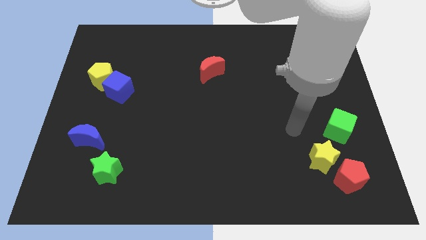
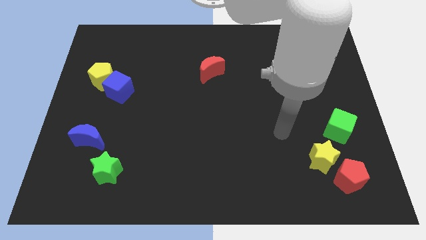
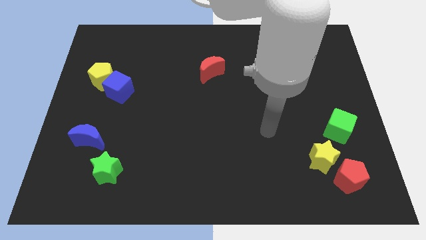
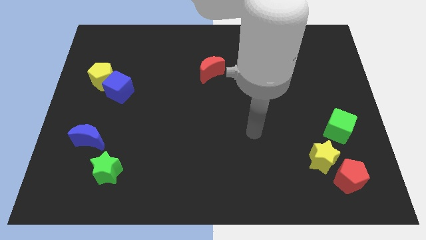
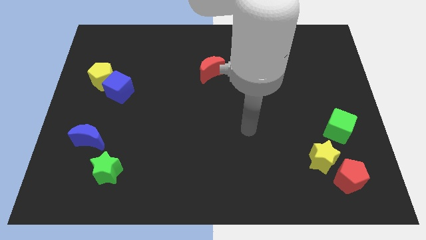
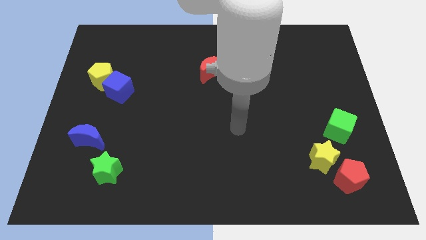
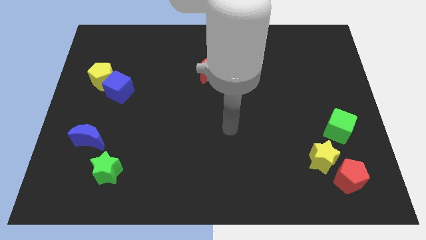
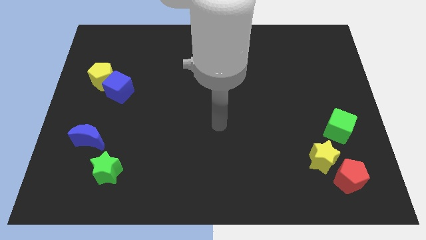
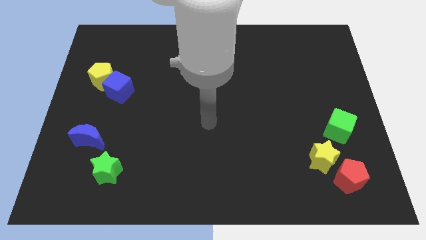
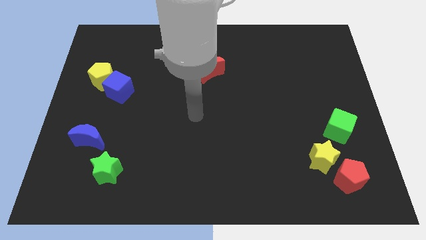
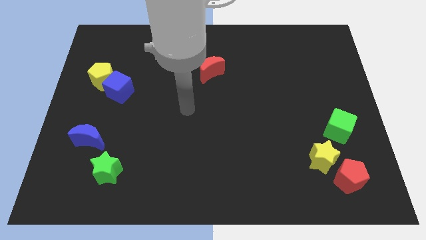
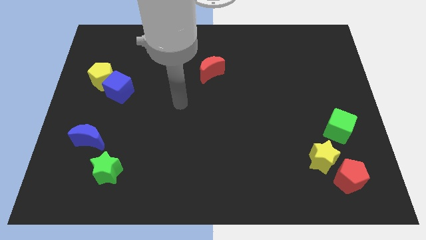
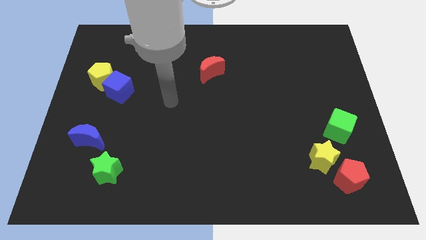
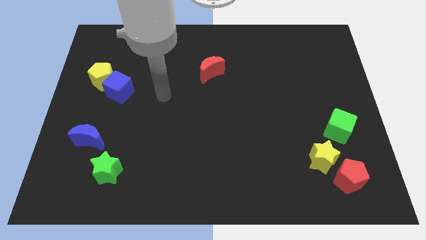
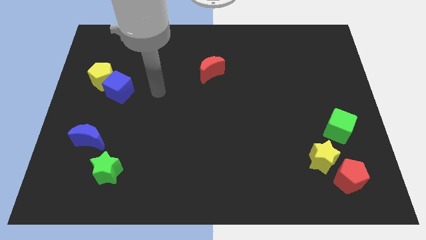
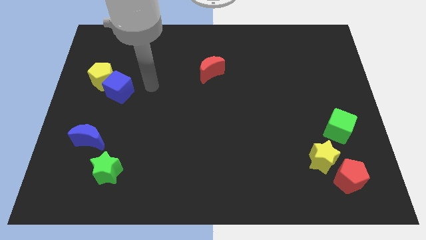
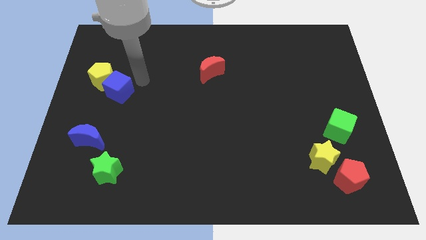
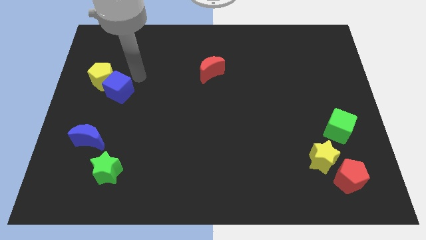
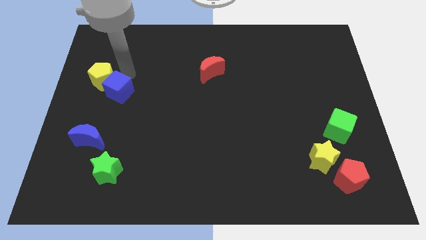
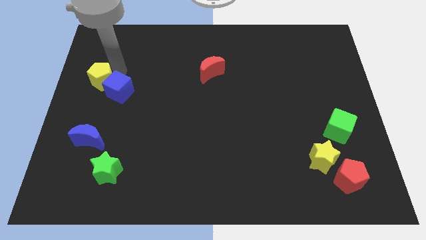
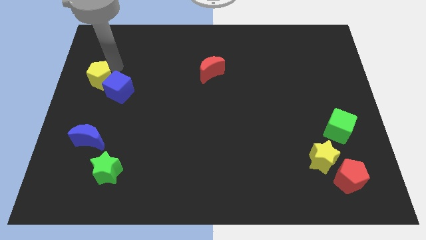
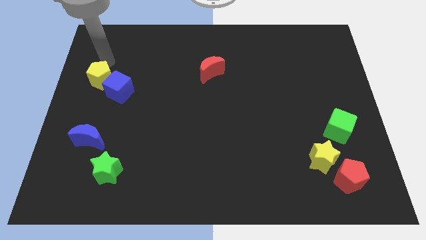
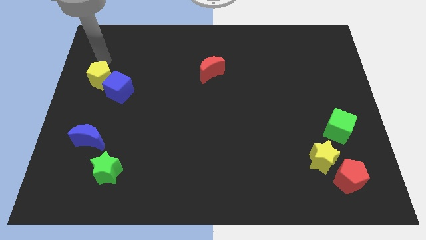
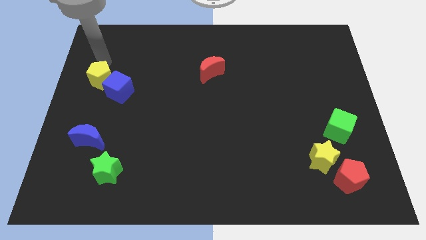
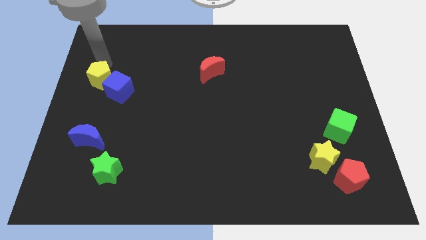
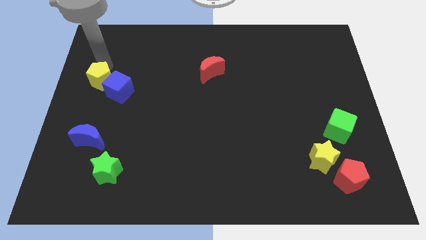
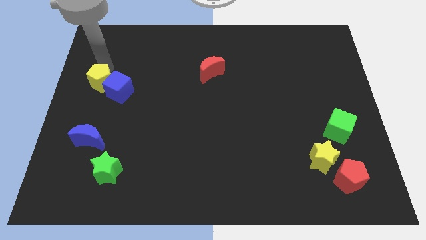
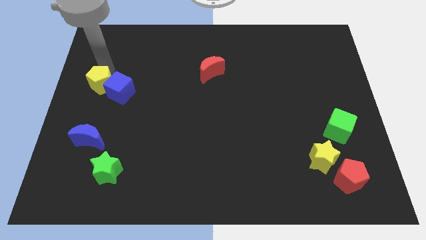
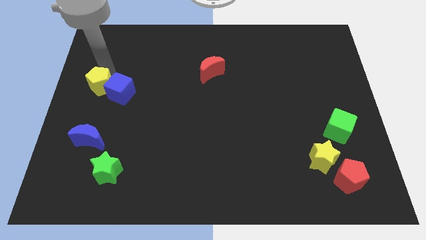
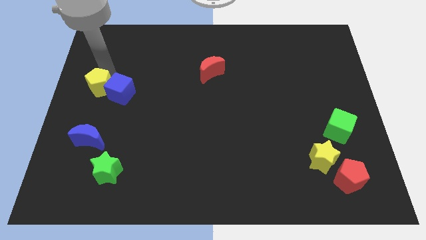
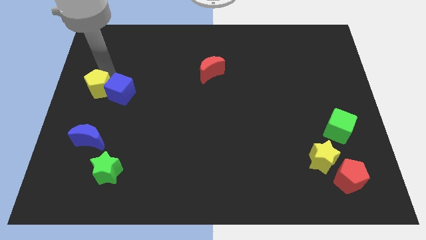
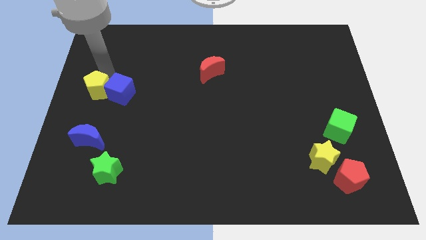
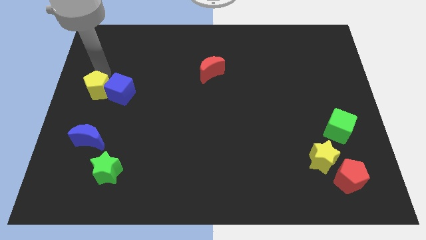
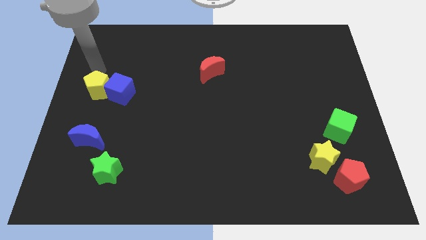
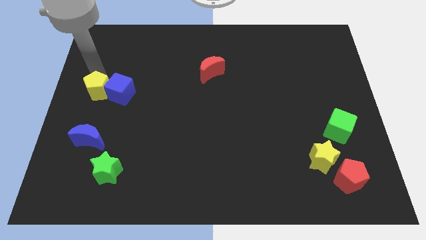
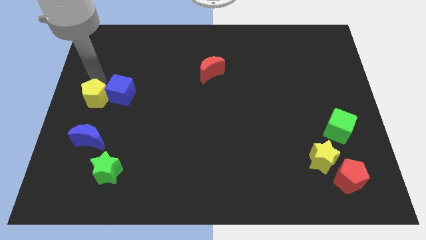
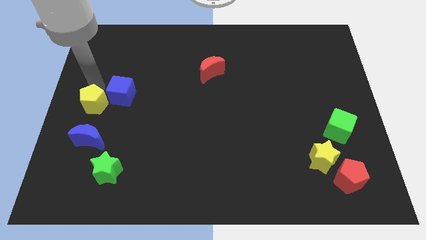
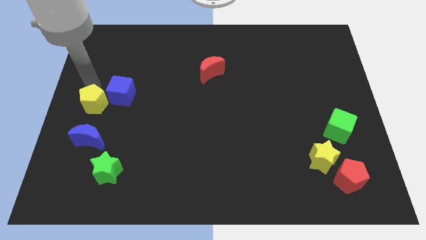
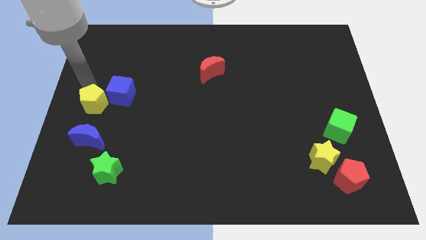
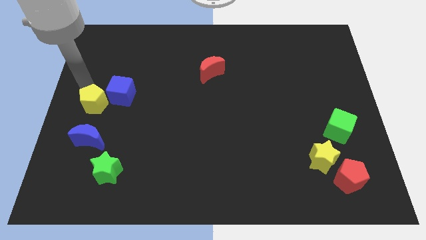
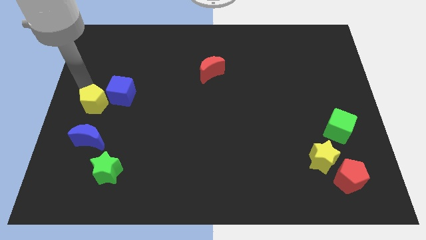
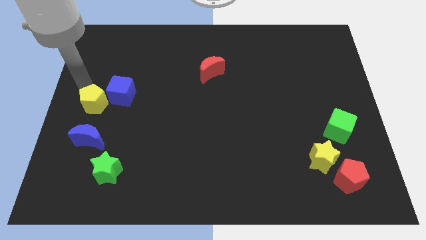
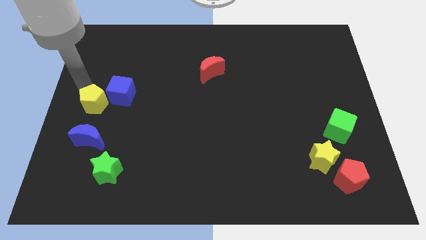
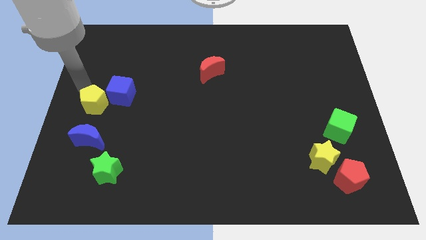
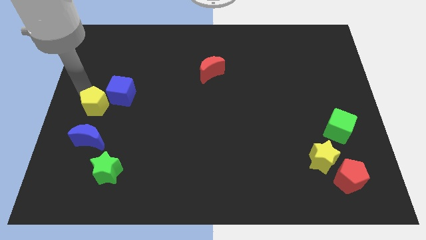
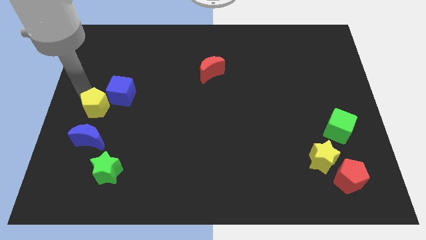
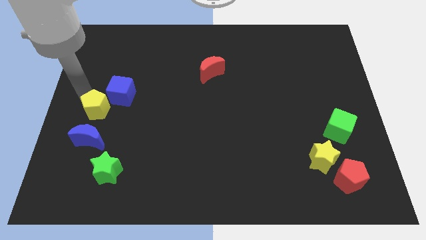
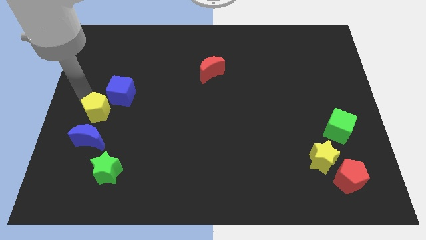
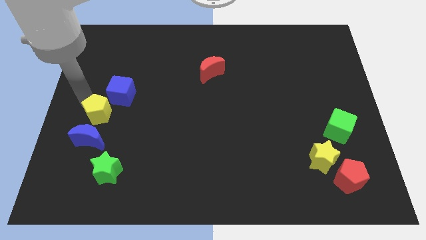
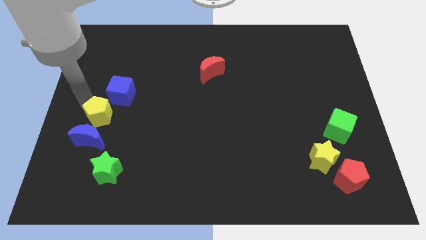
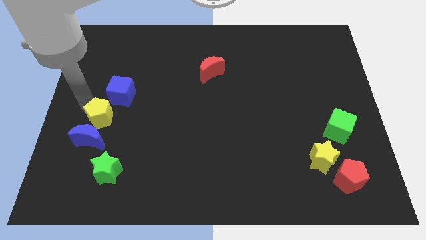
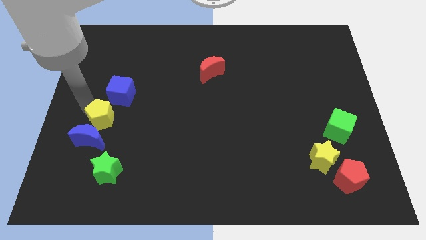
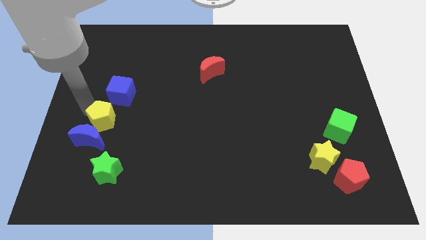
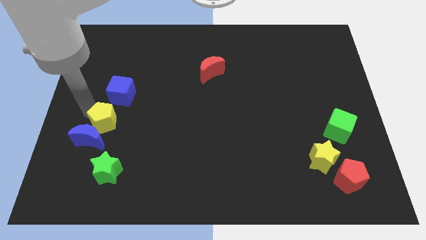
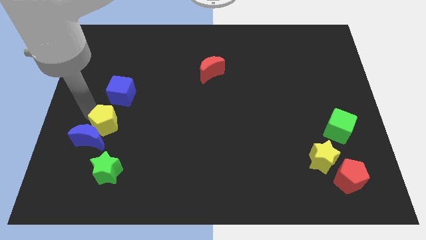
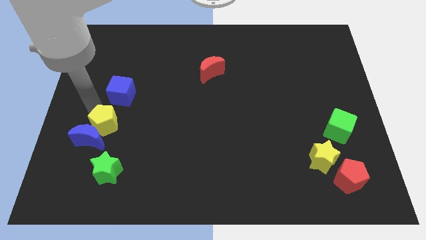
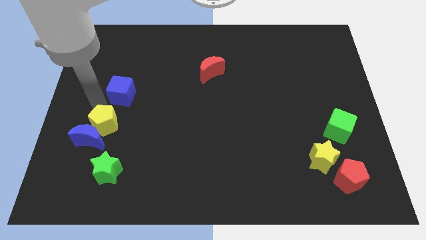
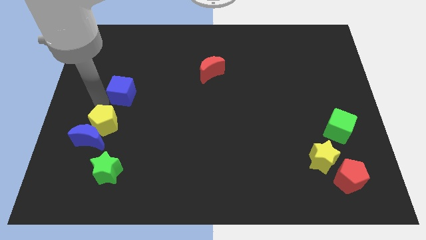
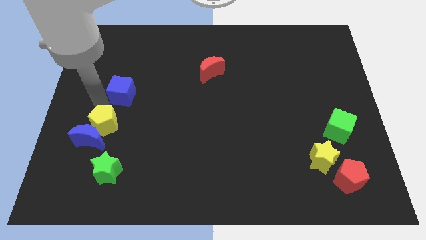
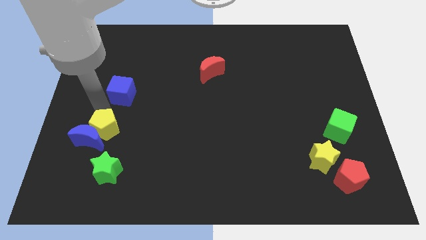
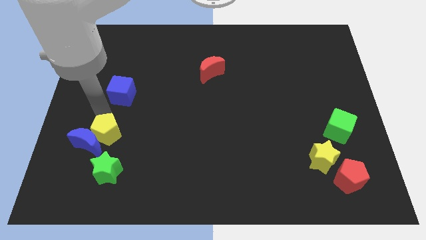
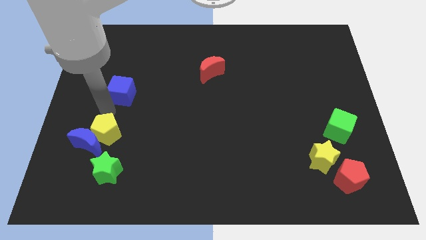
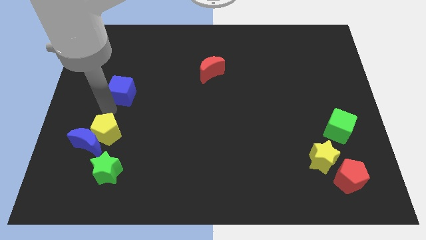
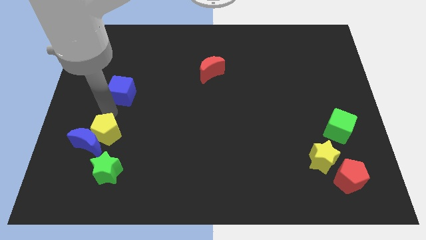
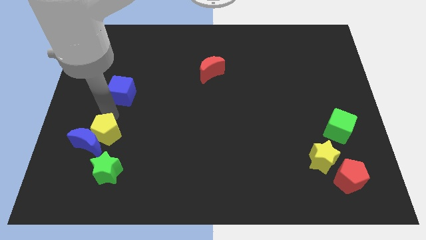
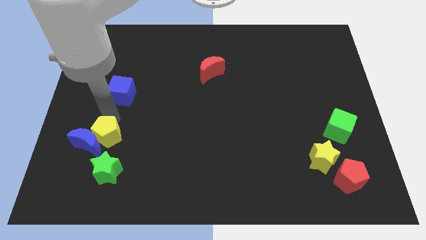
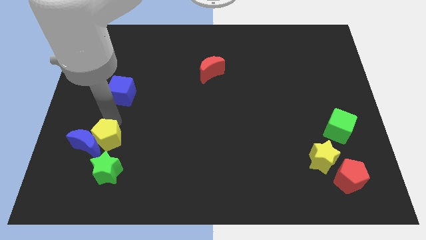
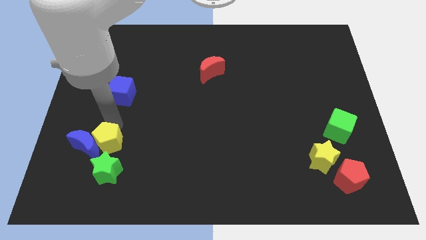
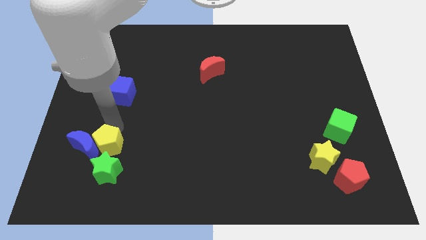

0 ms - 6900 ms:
put the yellow pentagon to the green star

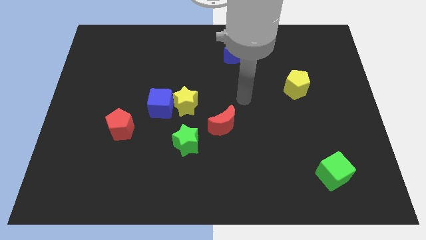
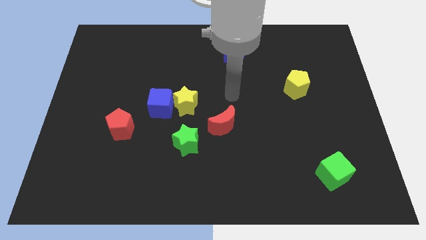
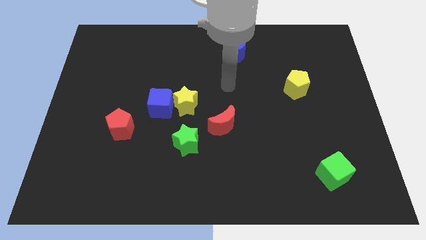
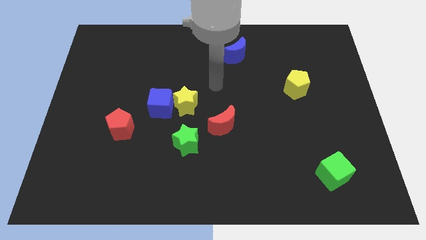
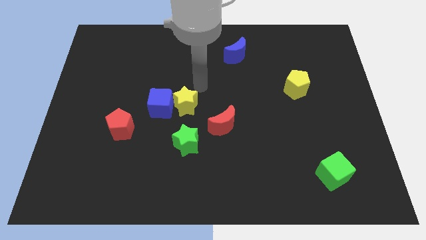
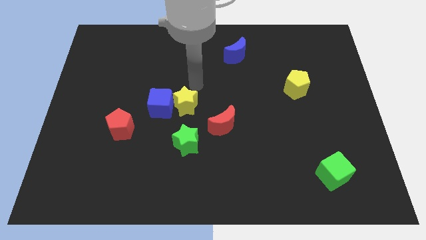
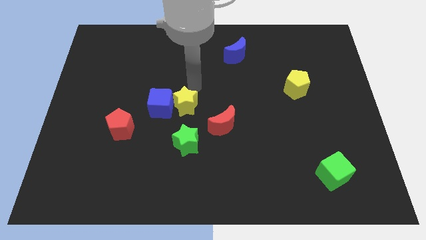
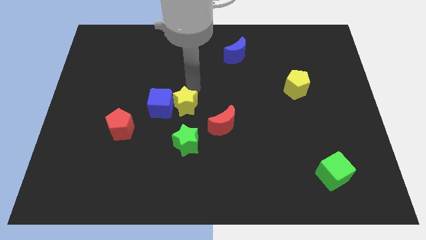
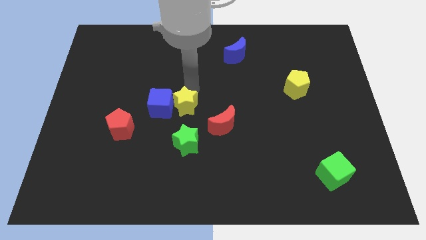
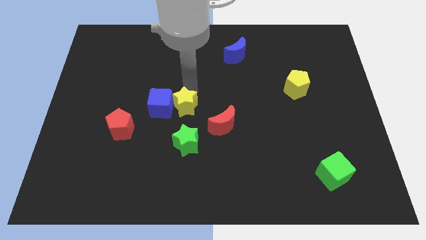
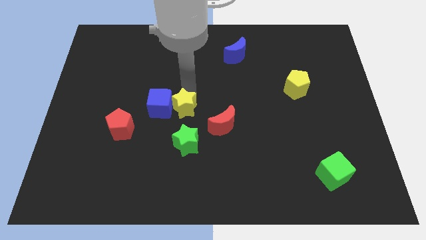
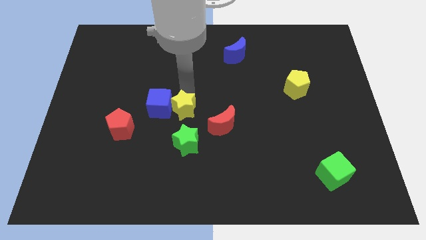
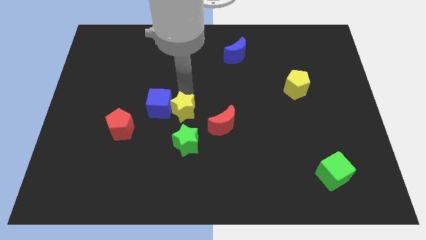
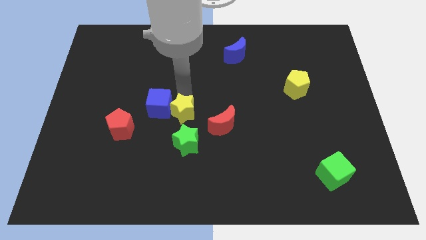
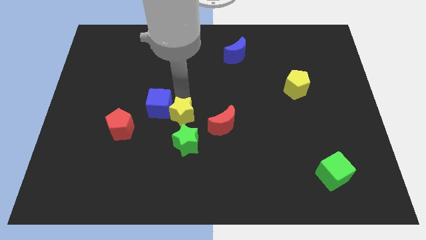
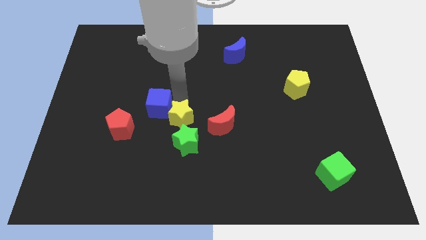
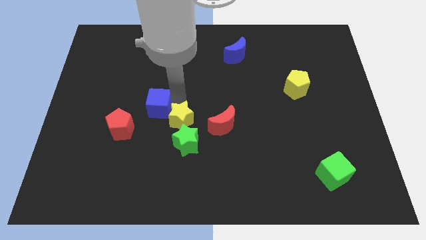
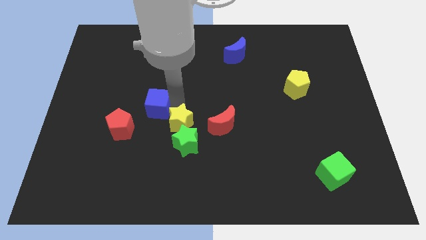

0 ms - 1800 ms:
push the yellow star next to the green star
